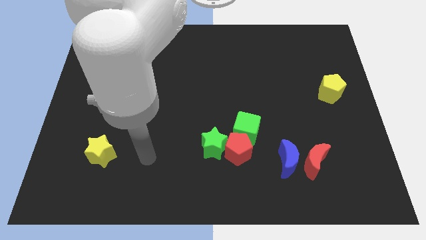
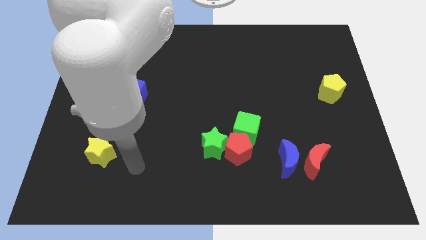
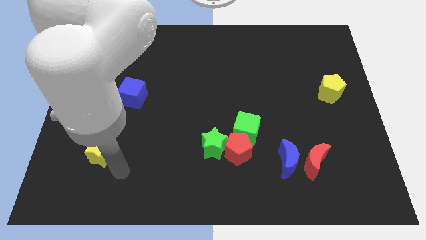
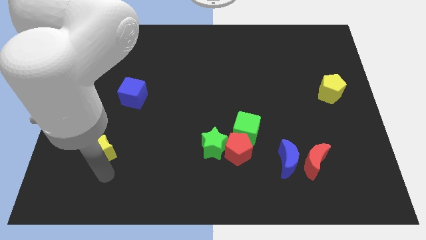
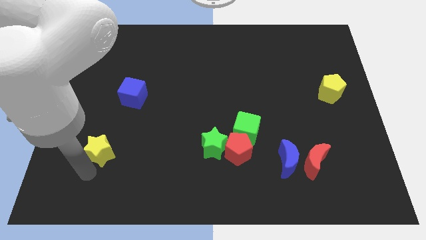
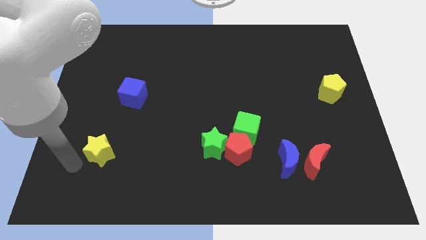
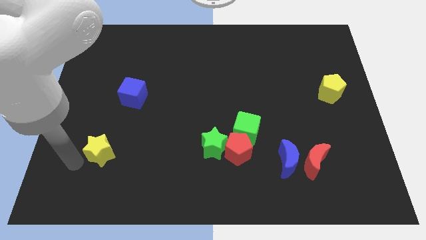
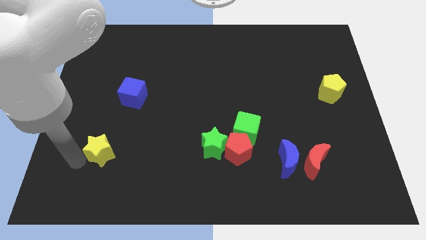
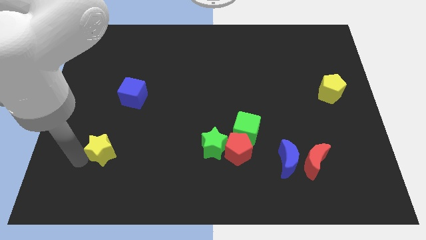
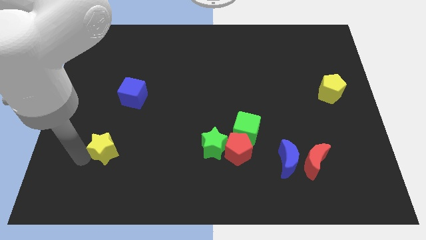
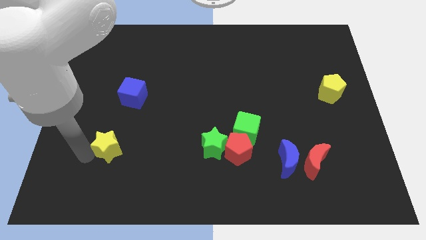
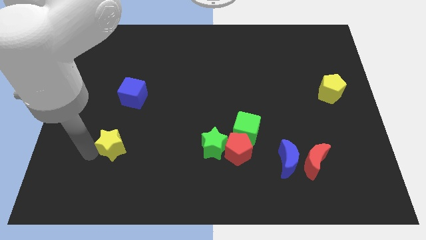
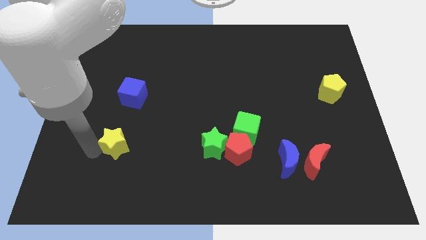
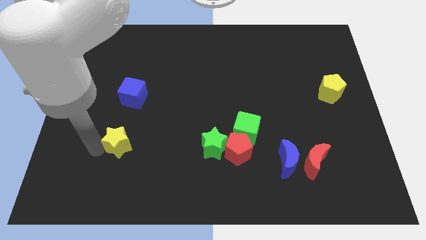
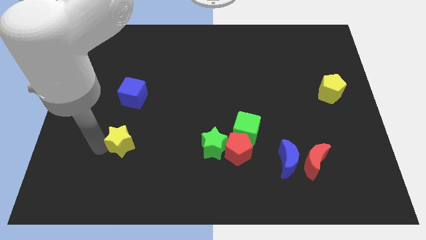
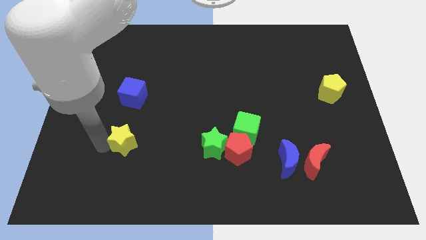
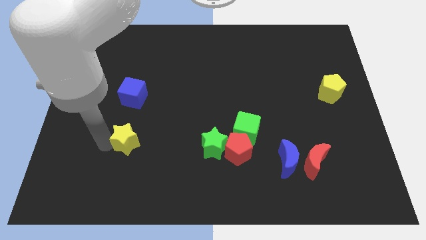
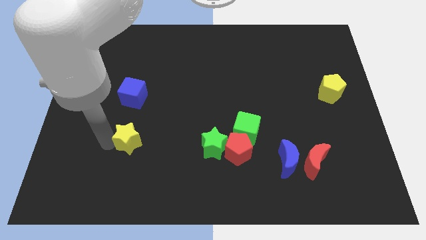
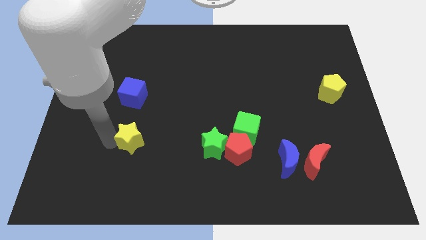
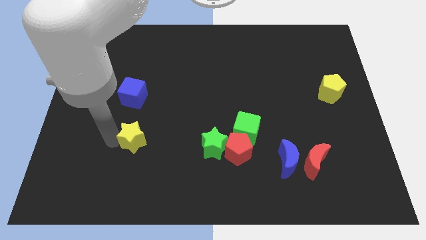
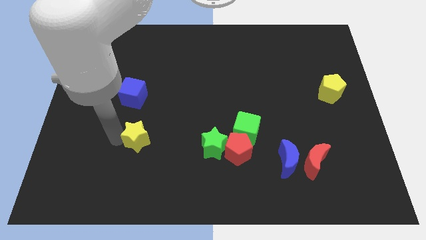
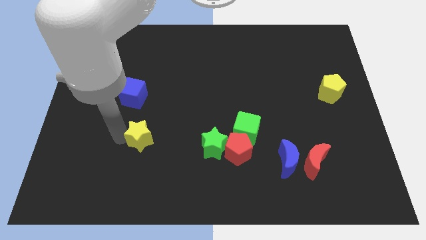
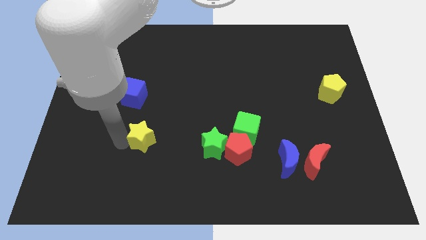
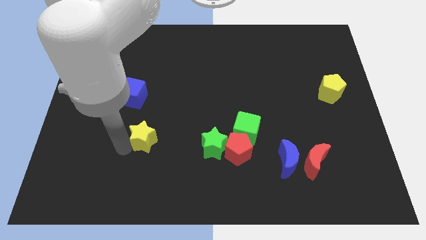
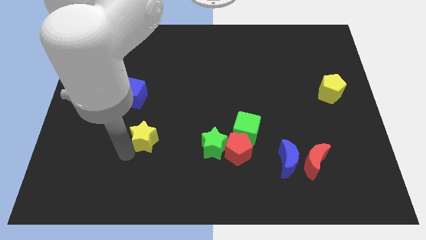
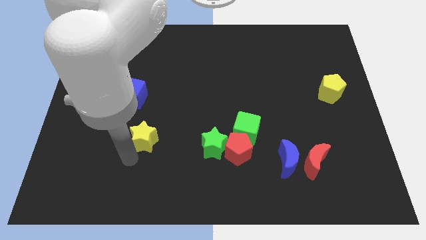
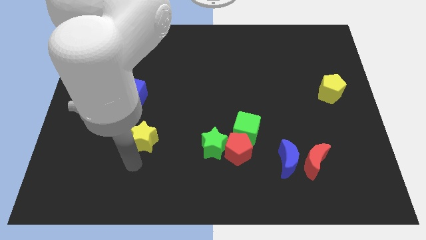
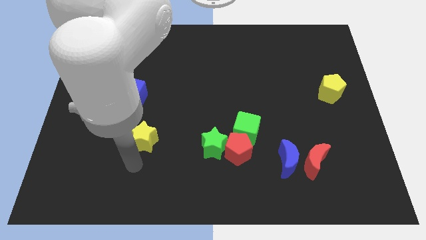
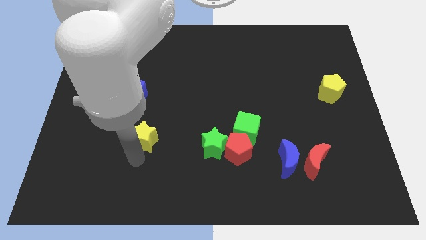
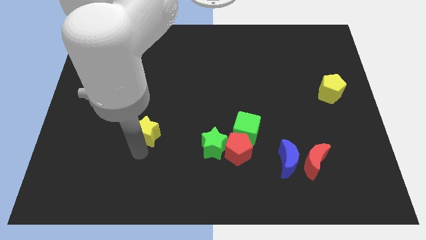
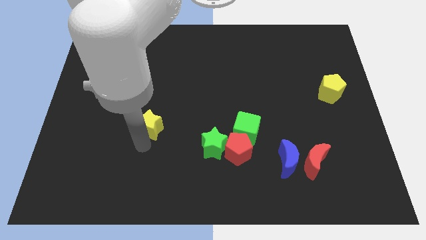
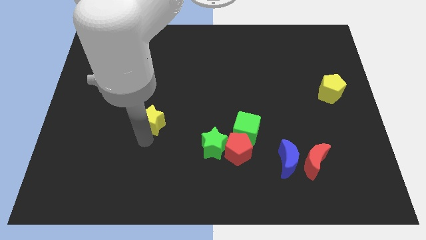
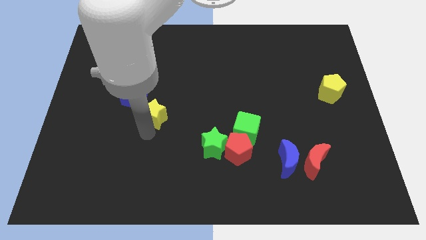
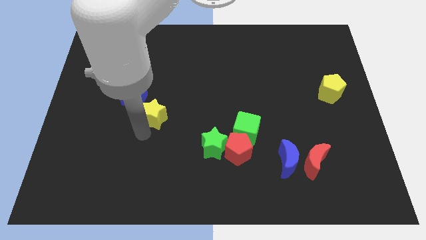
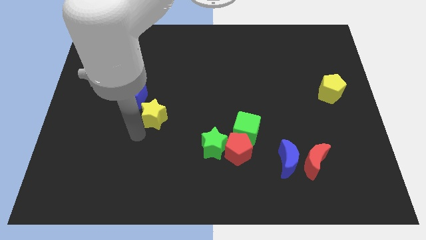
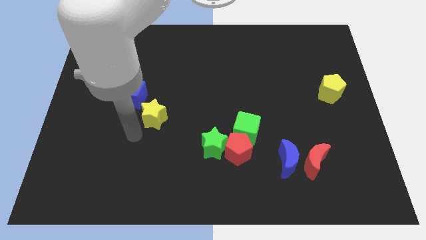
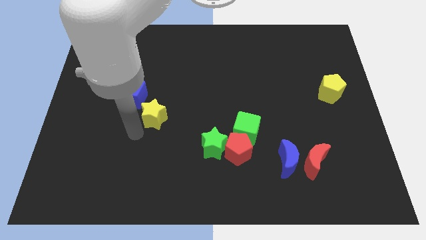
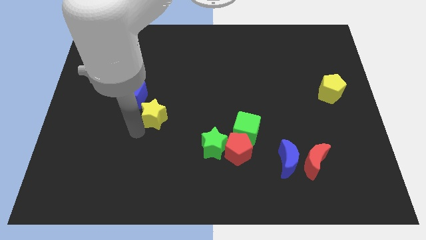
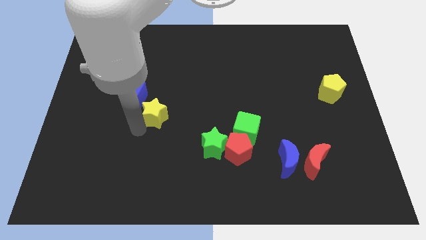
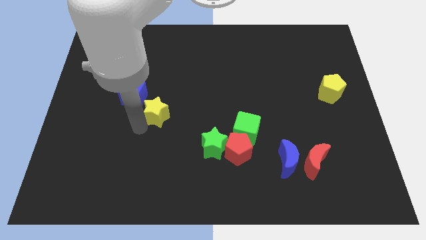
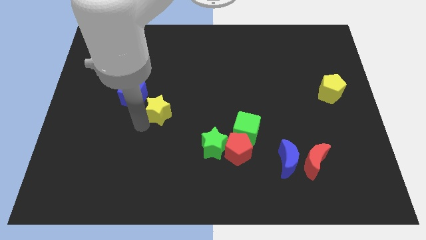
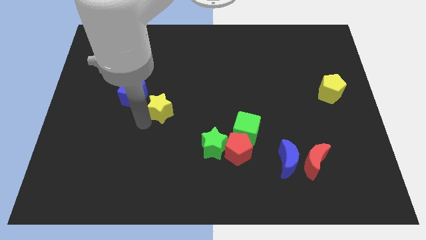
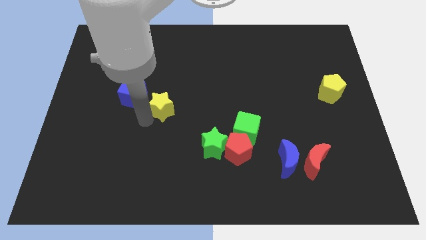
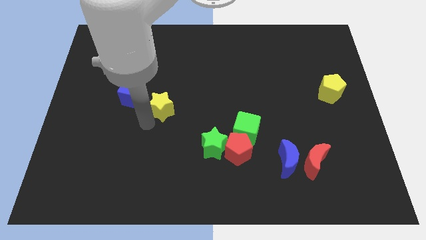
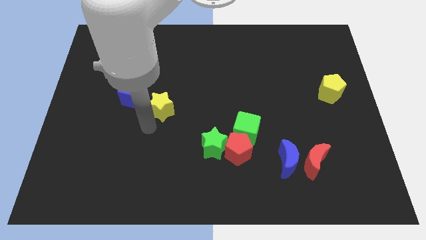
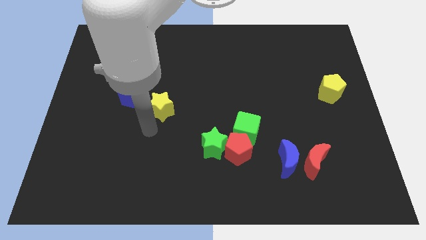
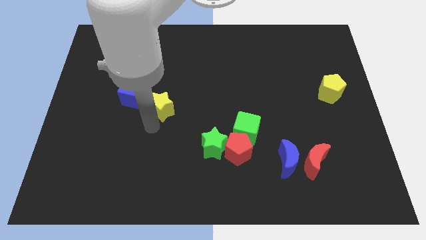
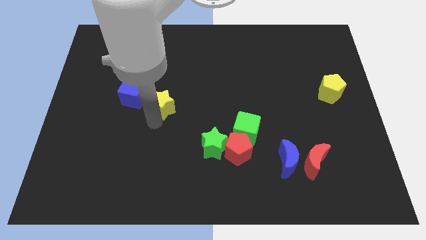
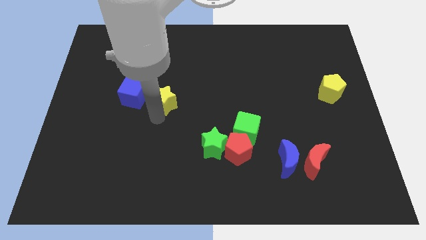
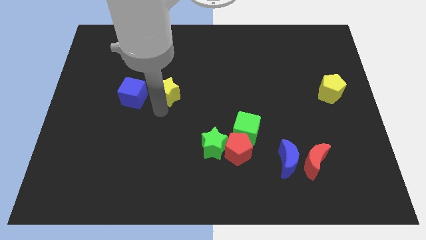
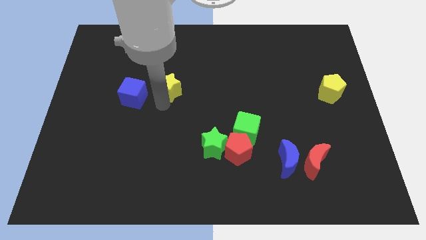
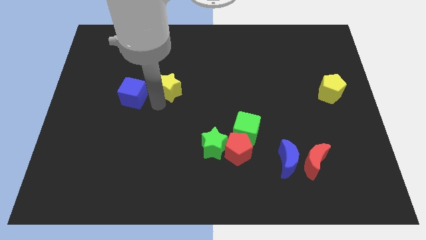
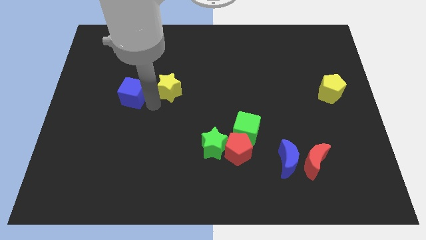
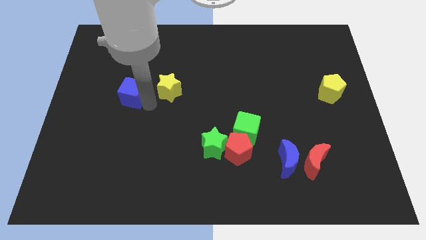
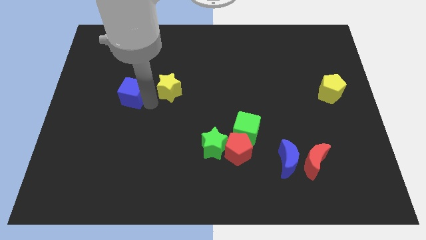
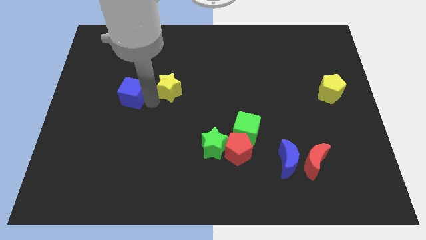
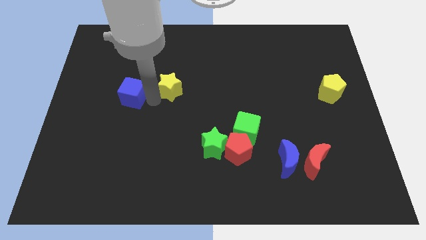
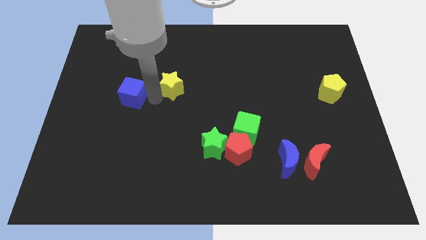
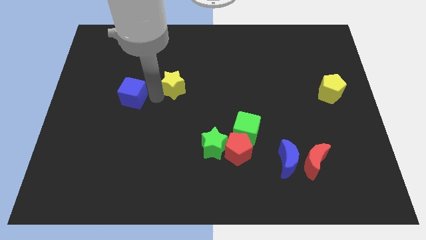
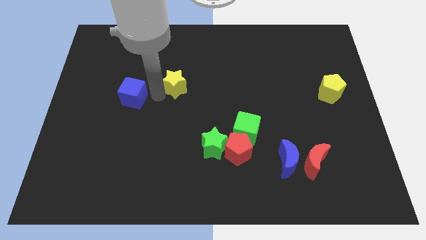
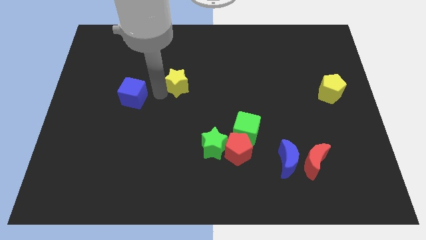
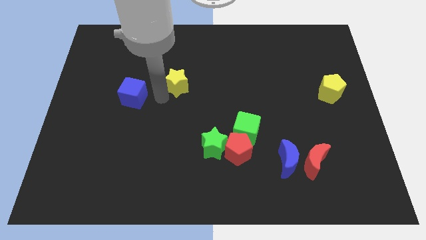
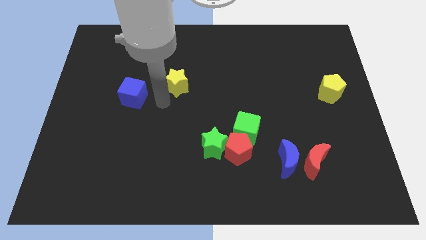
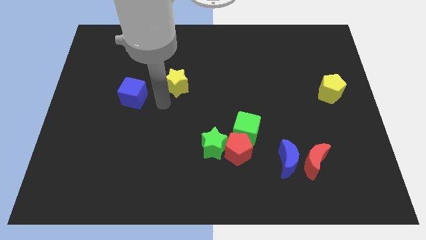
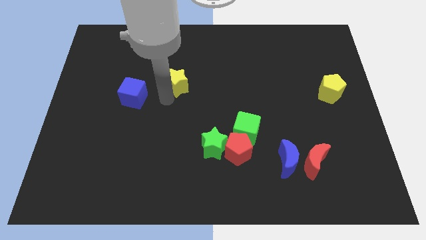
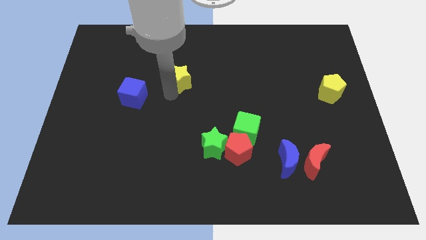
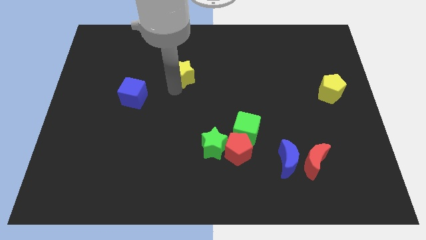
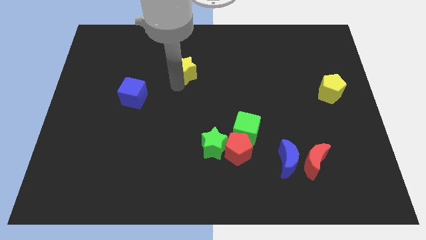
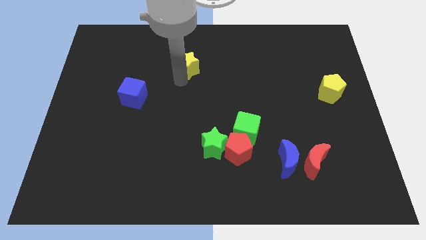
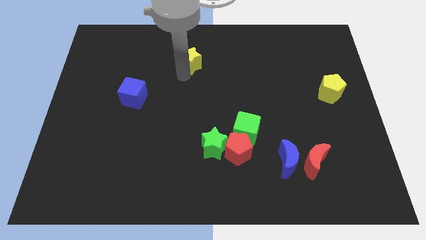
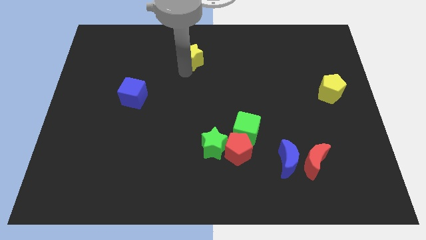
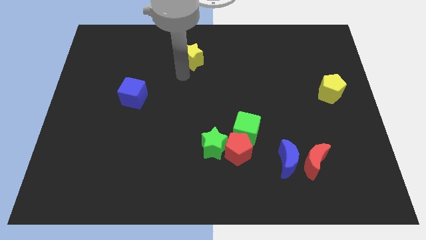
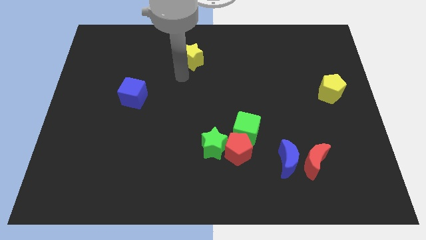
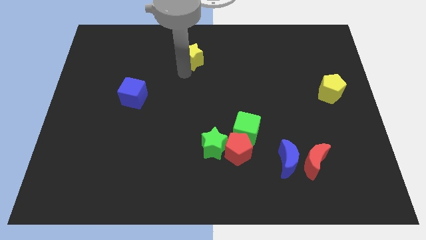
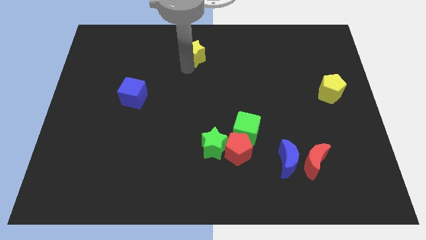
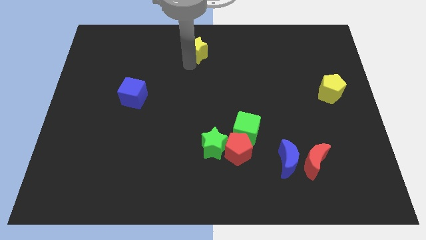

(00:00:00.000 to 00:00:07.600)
put the yellow star to the top
